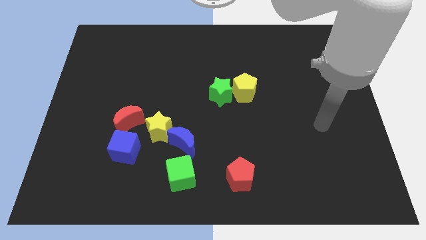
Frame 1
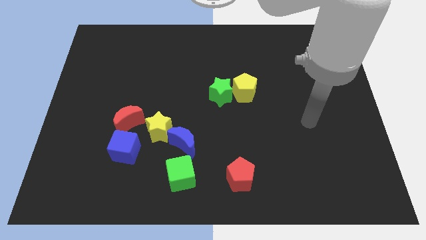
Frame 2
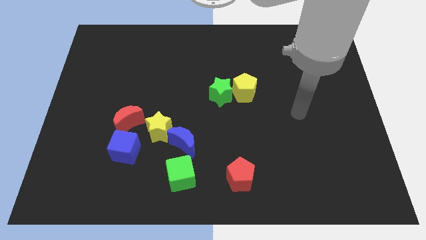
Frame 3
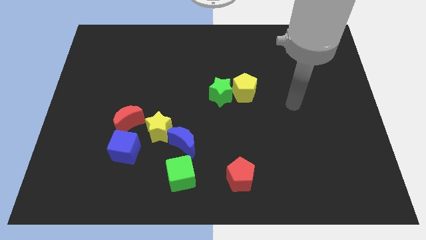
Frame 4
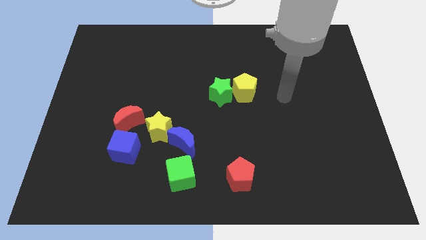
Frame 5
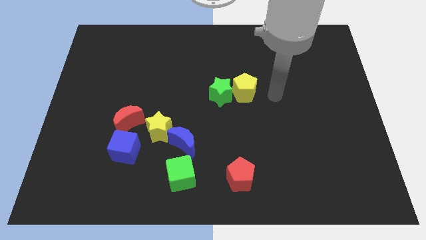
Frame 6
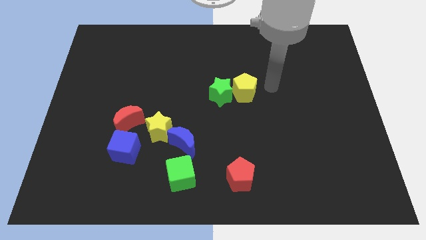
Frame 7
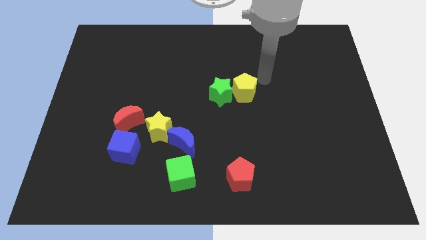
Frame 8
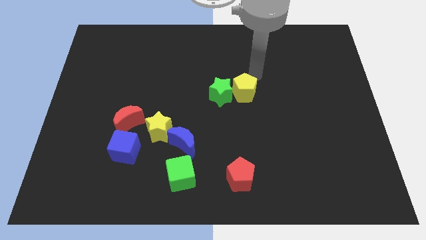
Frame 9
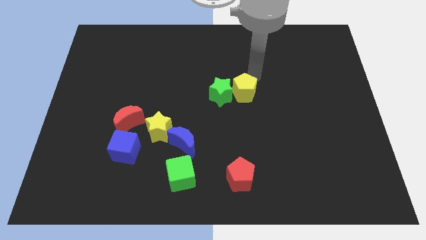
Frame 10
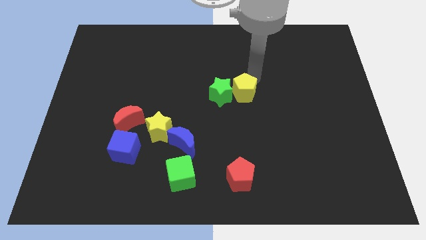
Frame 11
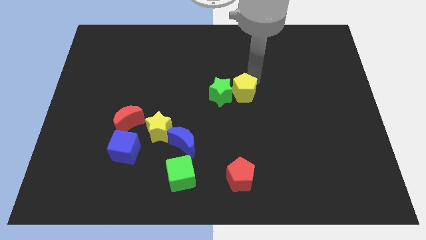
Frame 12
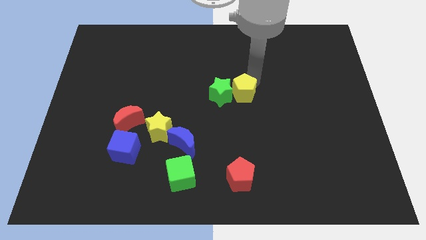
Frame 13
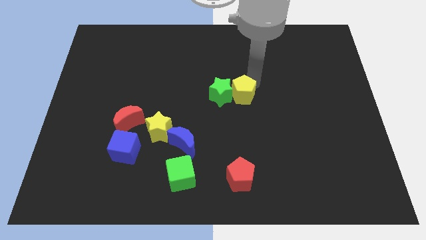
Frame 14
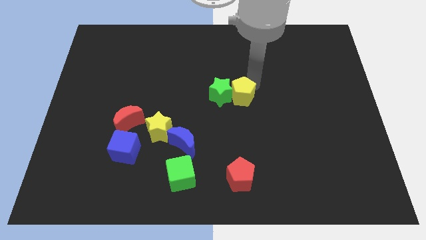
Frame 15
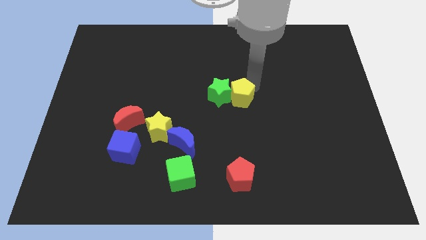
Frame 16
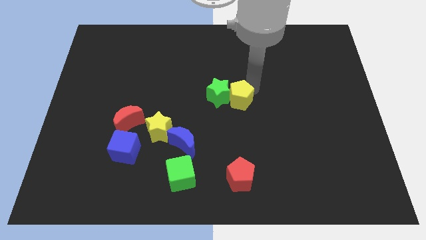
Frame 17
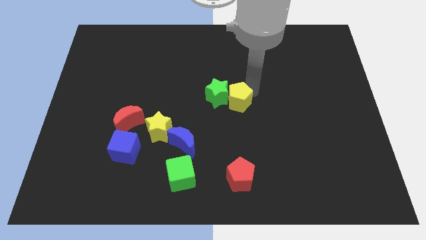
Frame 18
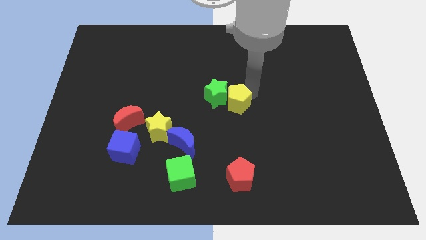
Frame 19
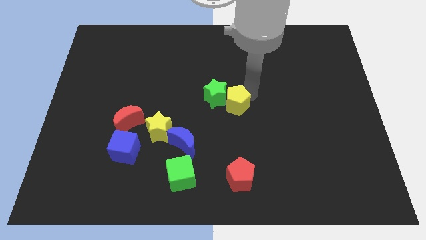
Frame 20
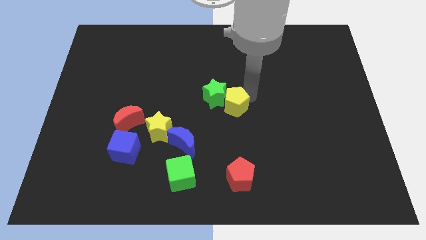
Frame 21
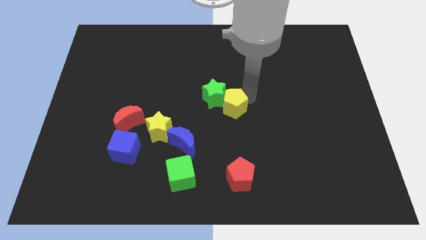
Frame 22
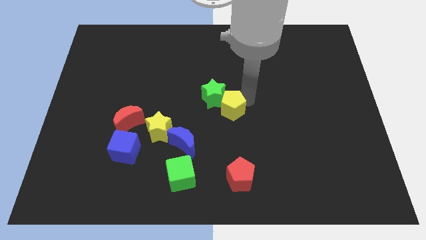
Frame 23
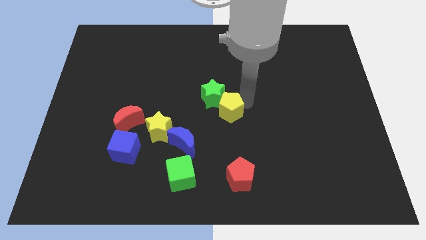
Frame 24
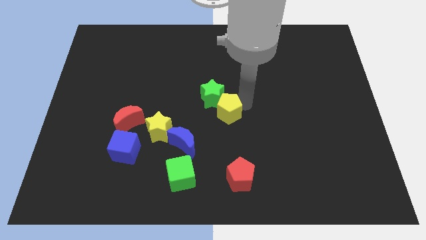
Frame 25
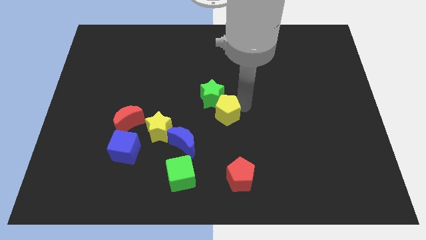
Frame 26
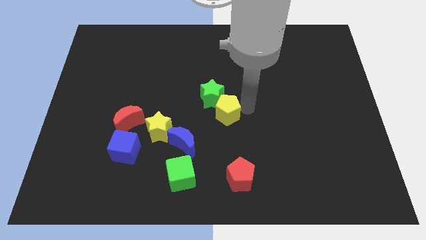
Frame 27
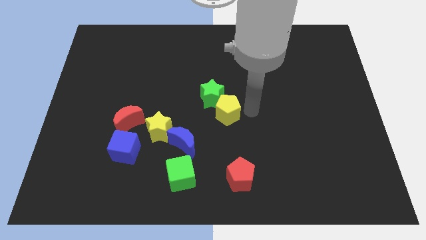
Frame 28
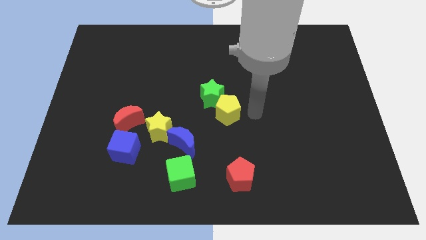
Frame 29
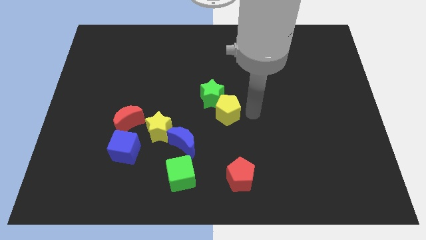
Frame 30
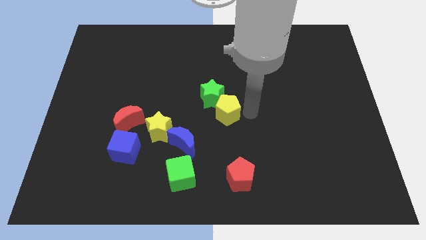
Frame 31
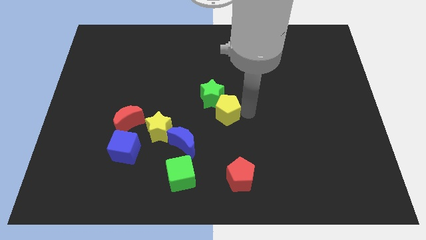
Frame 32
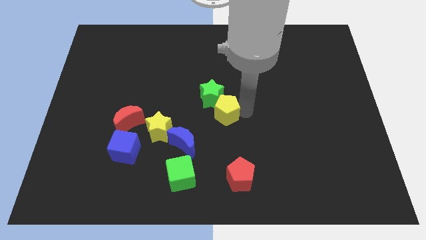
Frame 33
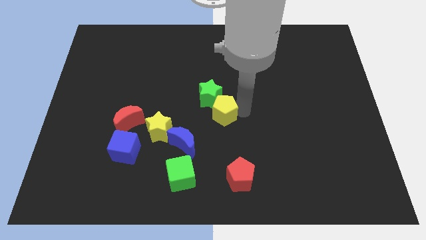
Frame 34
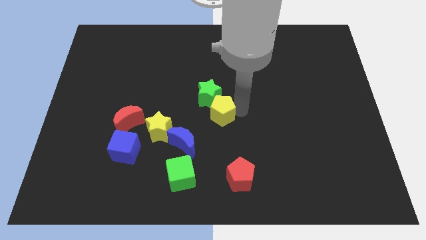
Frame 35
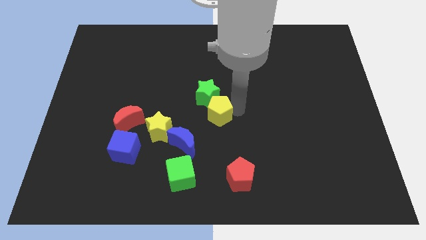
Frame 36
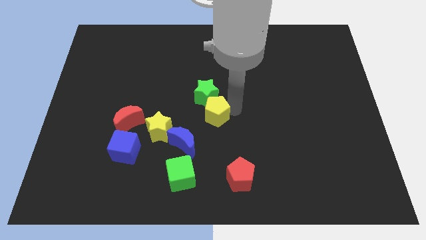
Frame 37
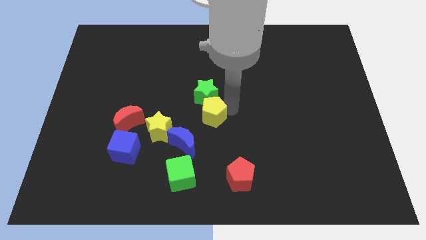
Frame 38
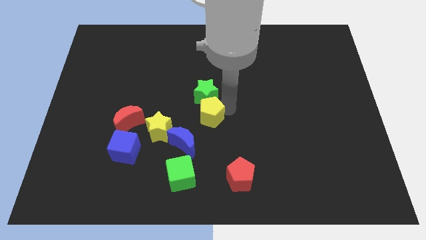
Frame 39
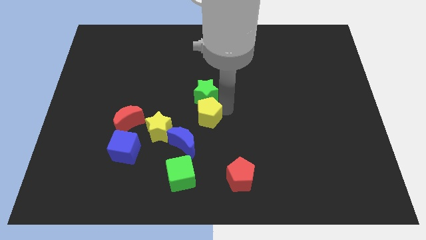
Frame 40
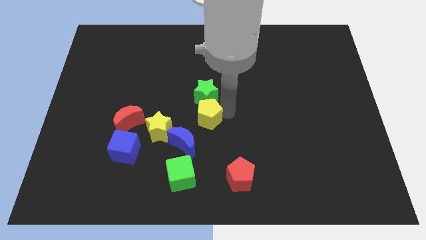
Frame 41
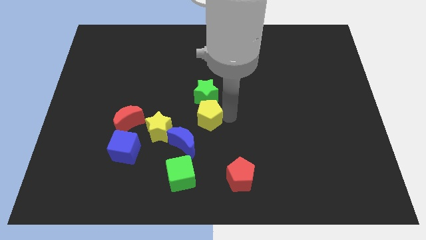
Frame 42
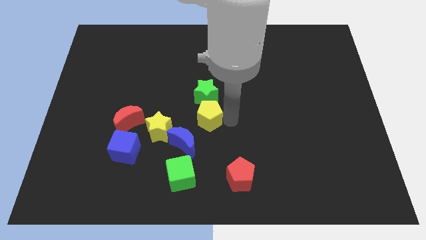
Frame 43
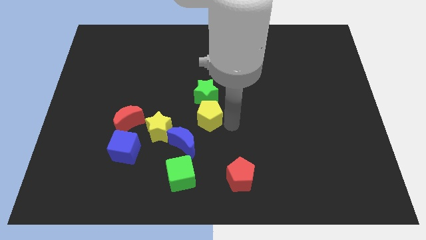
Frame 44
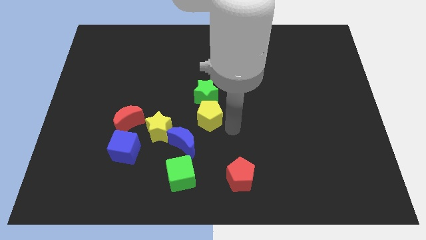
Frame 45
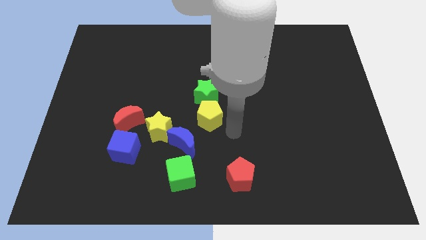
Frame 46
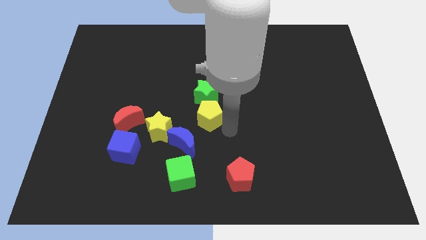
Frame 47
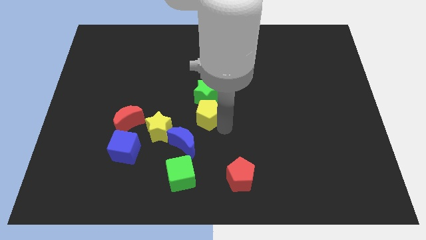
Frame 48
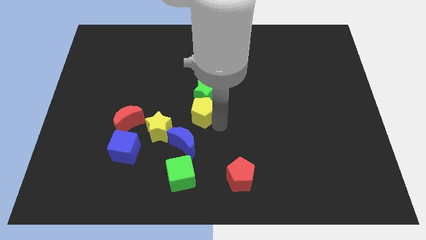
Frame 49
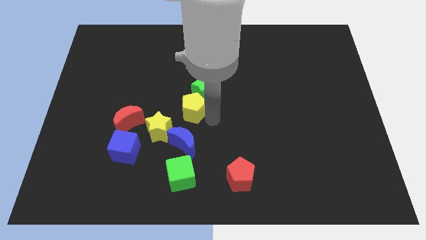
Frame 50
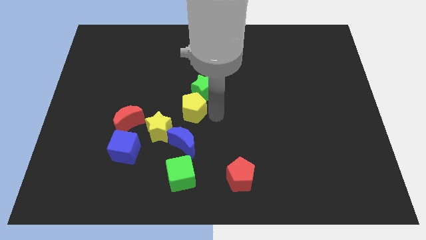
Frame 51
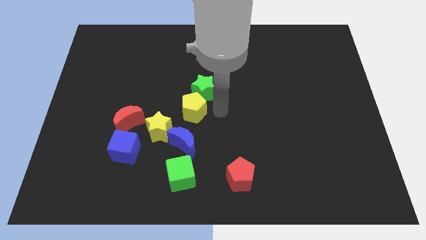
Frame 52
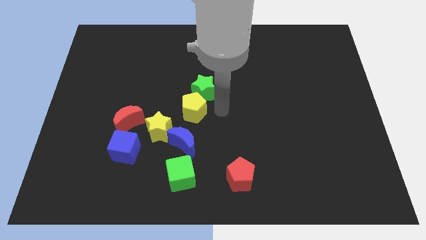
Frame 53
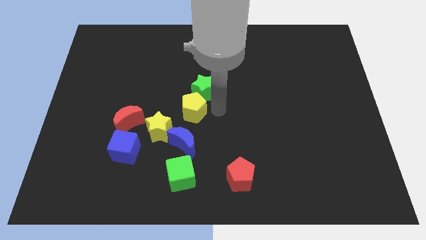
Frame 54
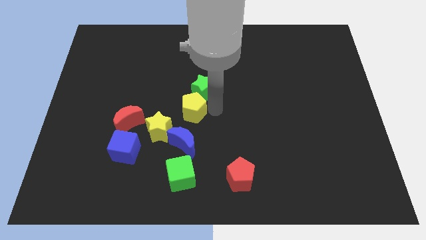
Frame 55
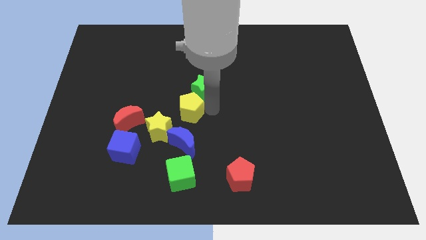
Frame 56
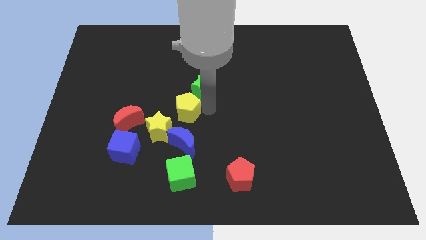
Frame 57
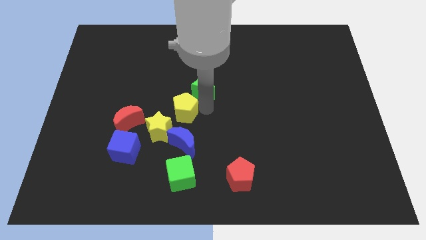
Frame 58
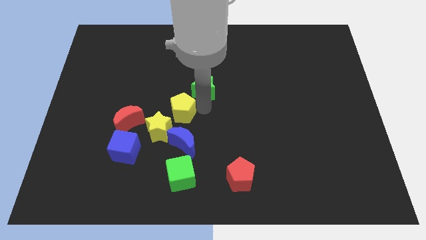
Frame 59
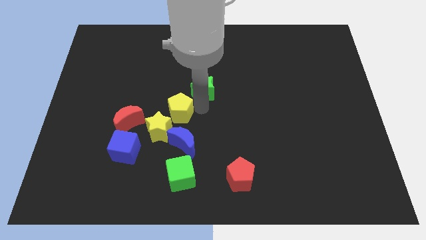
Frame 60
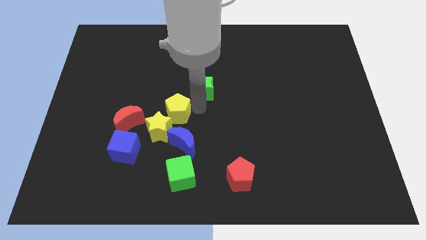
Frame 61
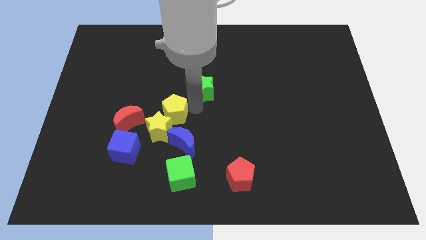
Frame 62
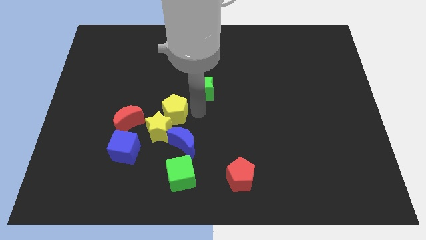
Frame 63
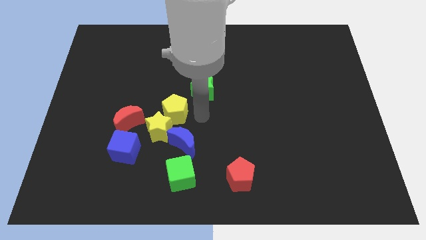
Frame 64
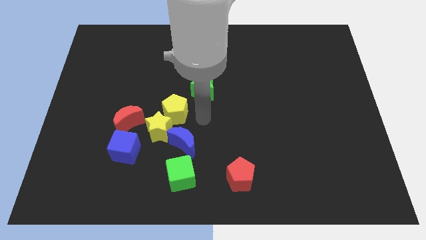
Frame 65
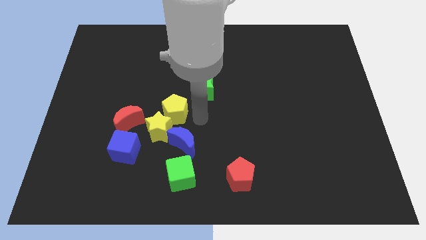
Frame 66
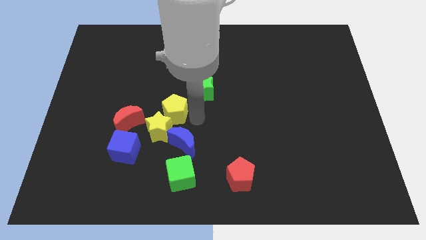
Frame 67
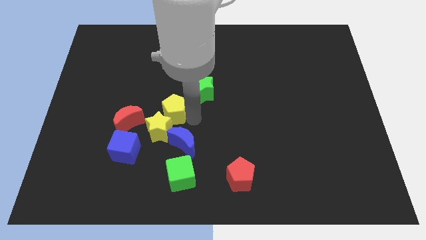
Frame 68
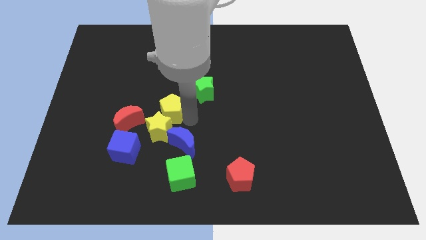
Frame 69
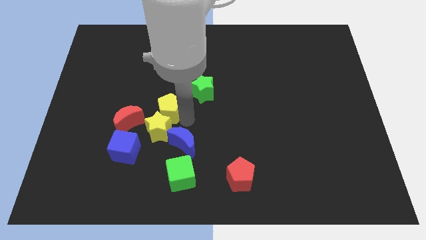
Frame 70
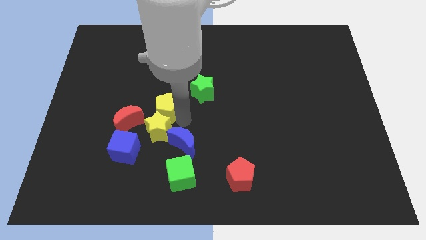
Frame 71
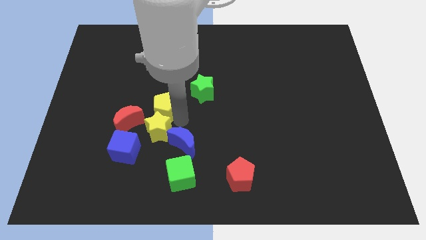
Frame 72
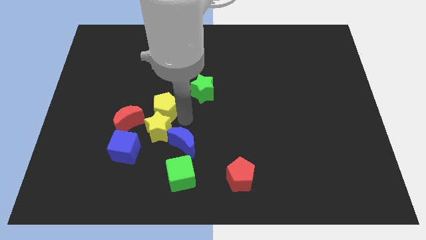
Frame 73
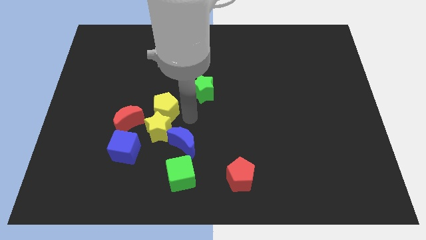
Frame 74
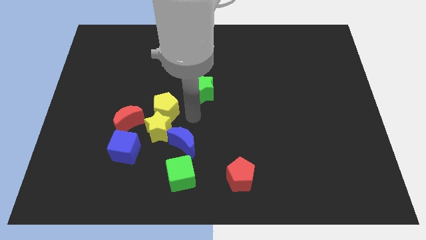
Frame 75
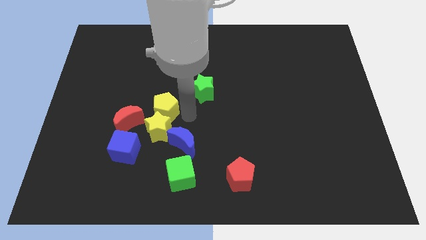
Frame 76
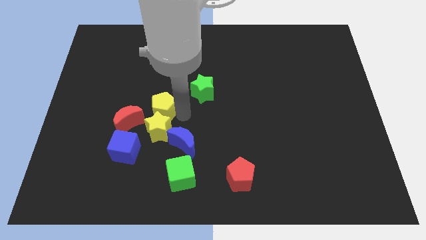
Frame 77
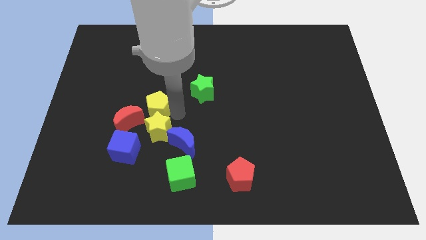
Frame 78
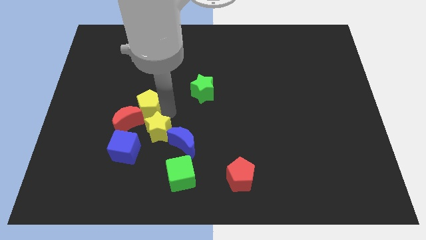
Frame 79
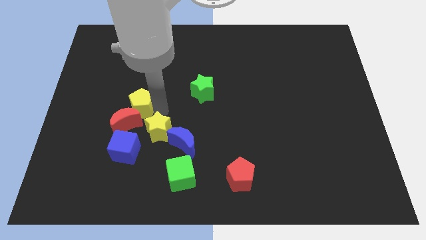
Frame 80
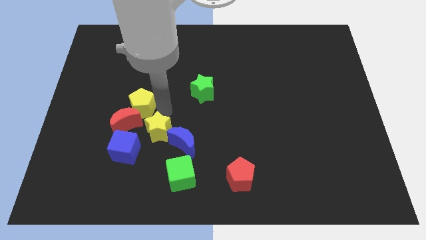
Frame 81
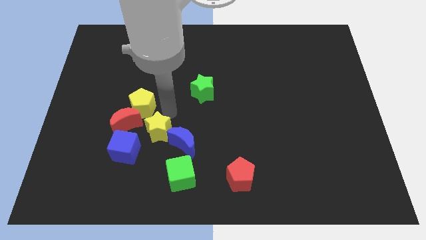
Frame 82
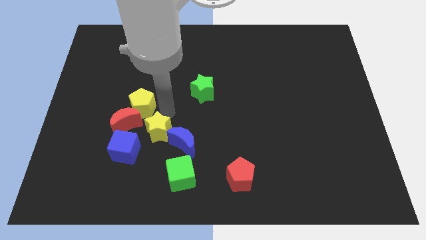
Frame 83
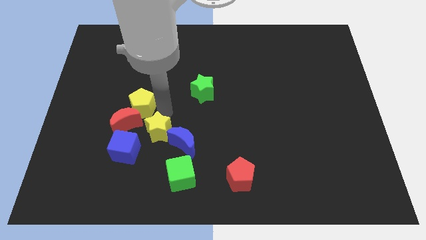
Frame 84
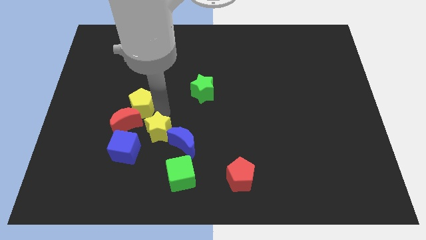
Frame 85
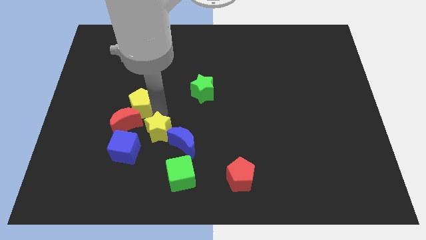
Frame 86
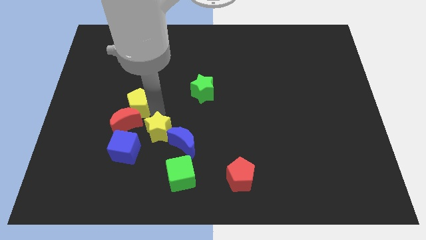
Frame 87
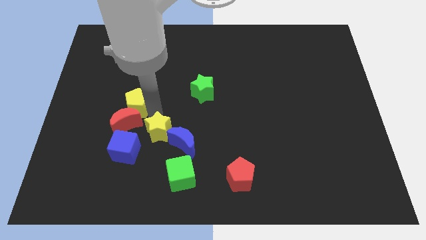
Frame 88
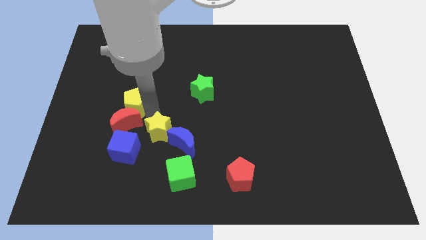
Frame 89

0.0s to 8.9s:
slide the yellow pentagon to the top left side of the red moon
